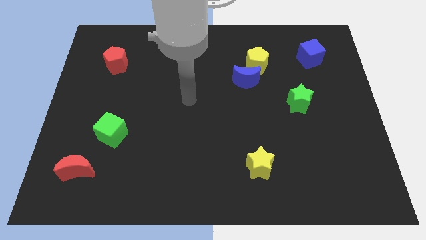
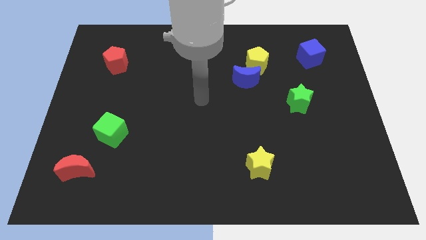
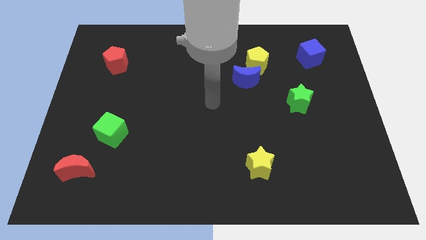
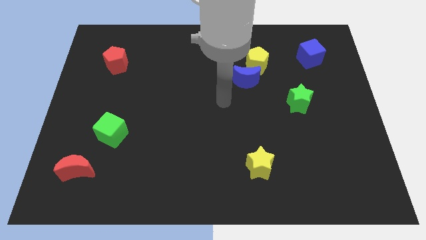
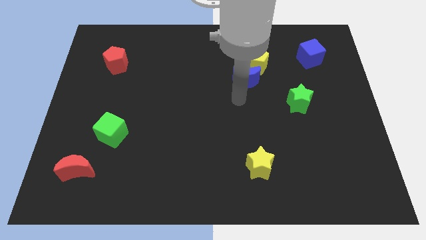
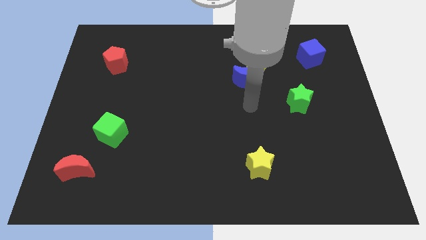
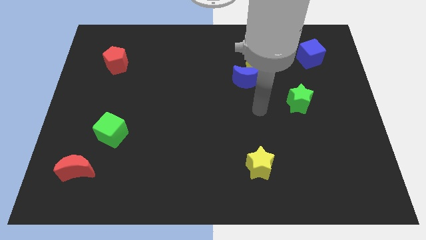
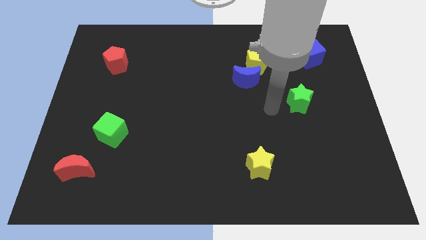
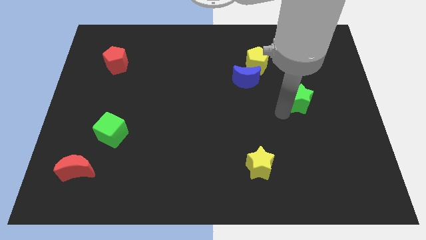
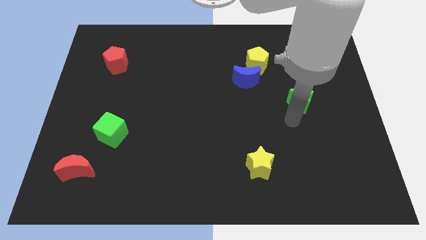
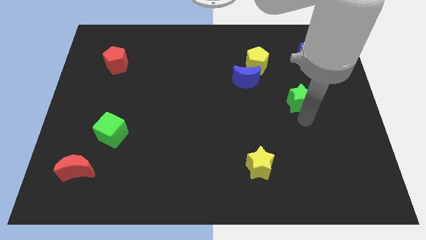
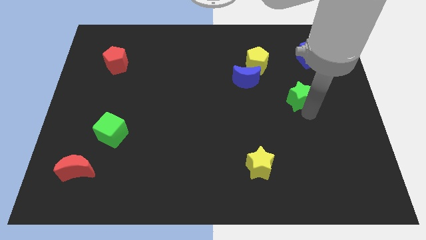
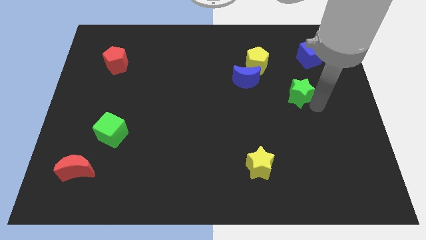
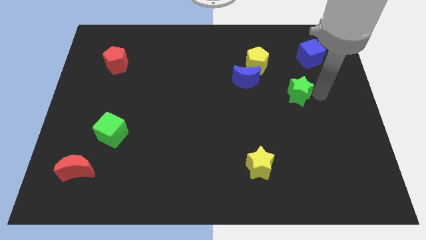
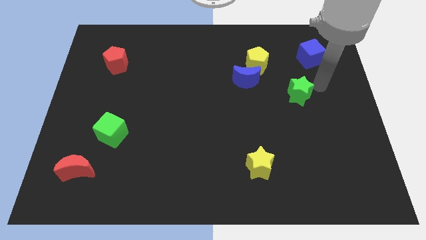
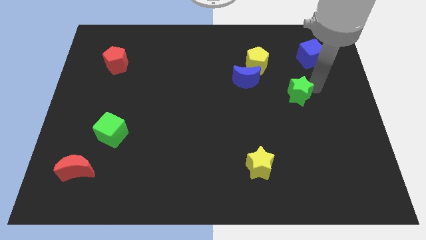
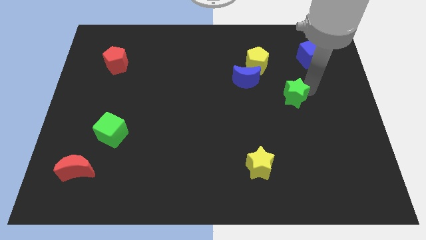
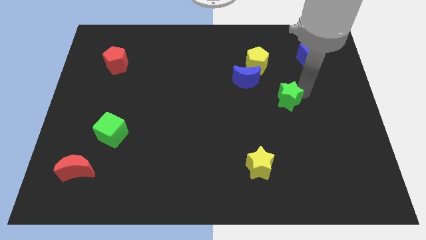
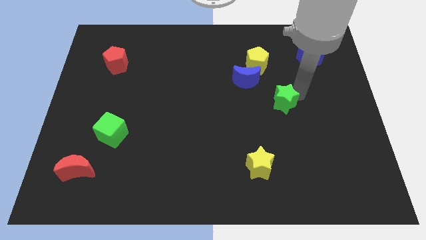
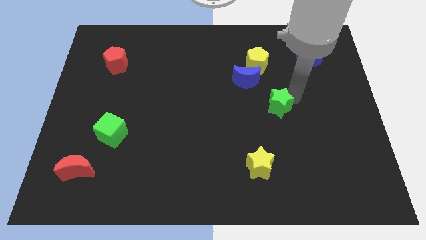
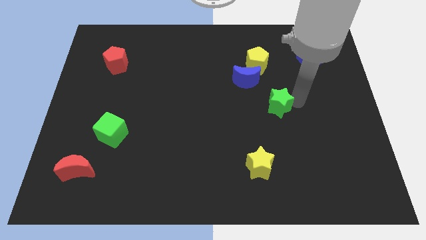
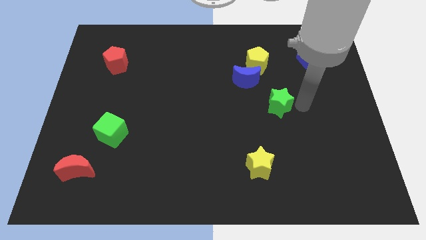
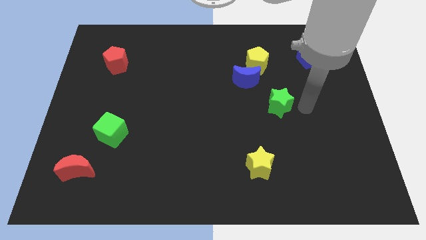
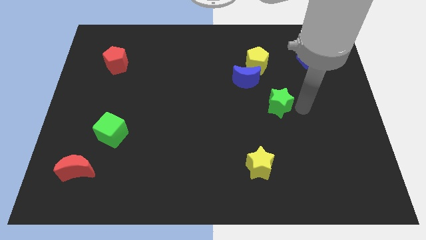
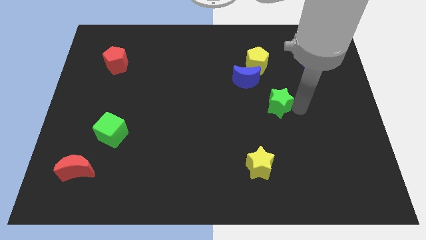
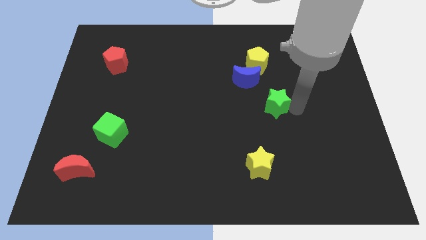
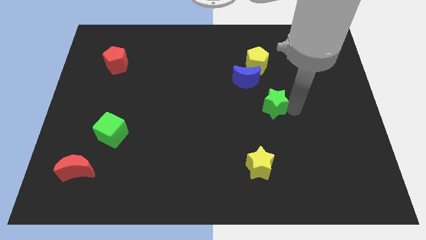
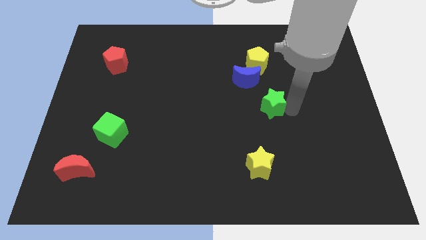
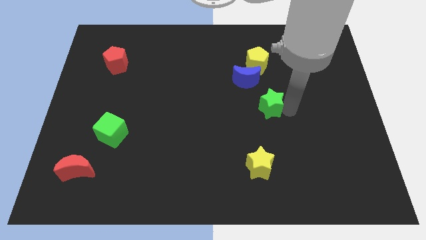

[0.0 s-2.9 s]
push the green star to the left slightly

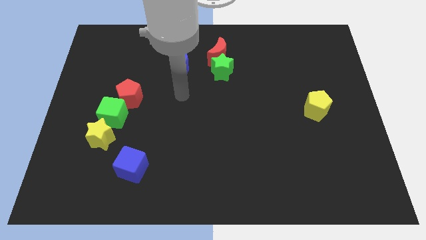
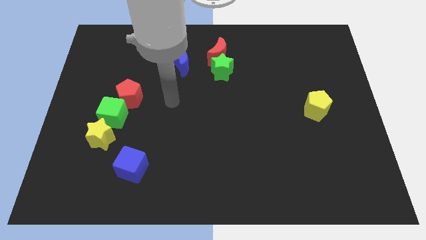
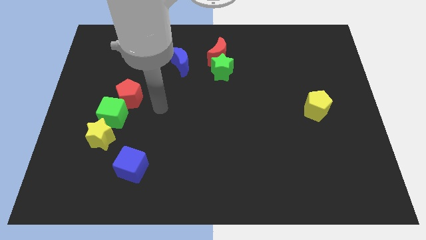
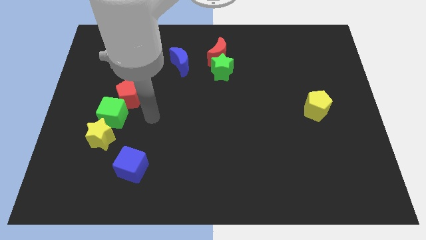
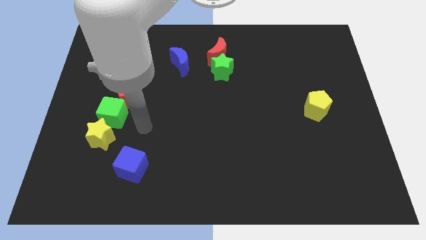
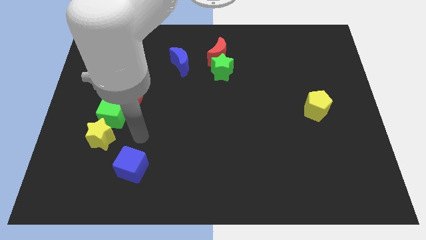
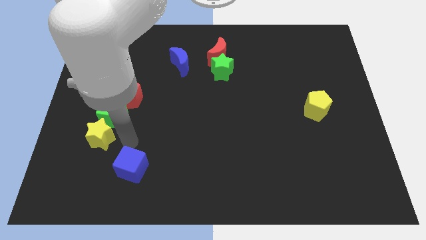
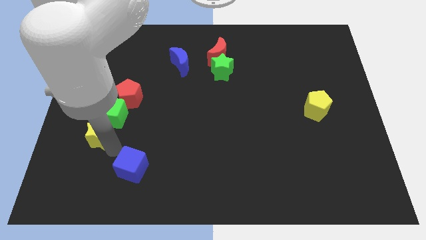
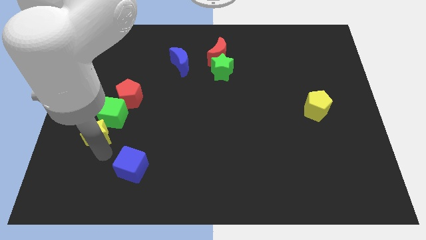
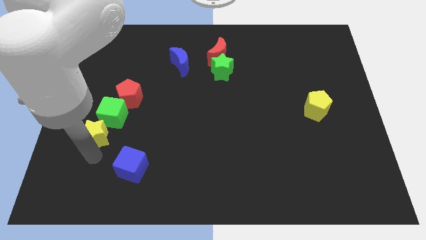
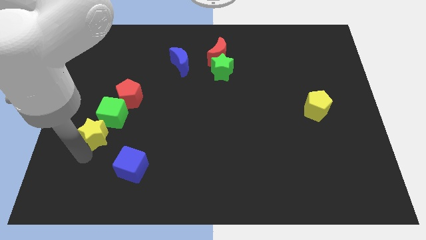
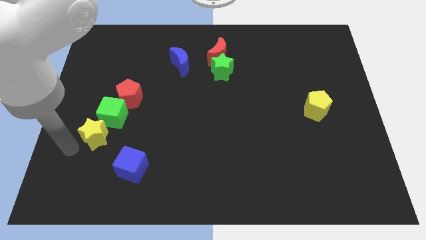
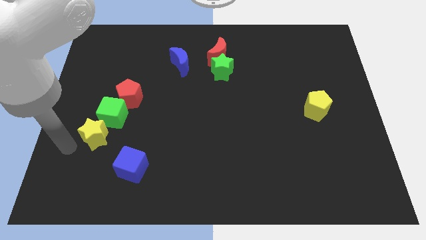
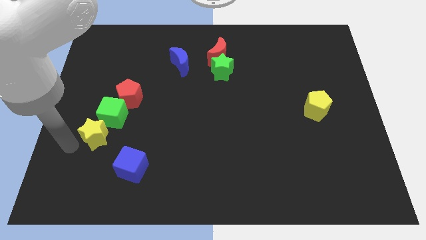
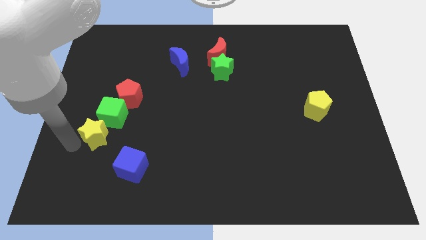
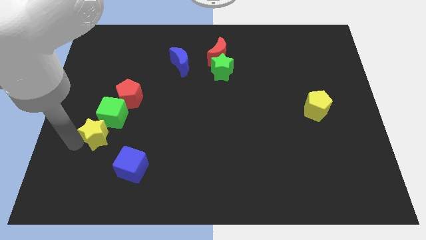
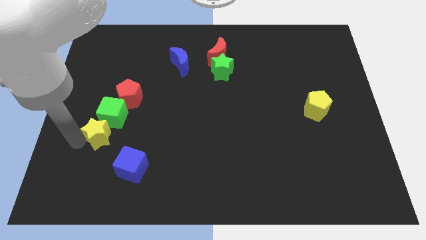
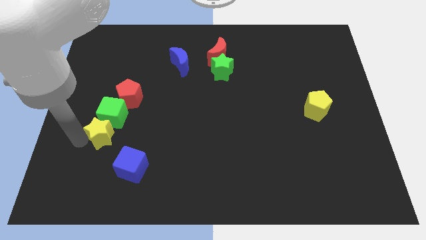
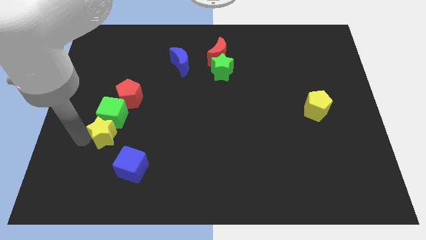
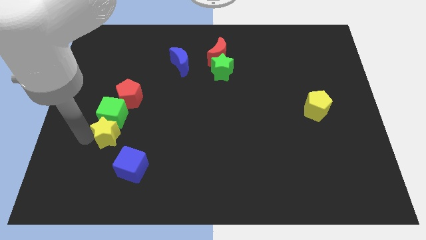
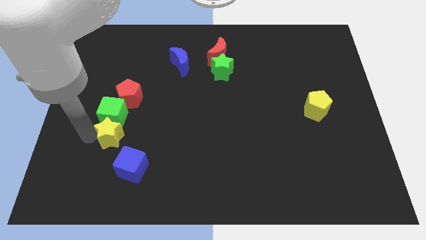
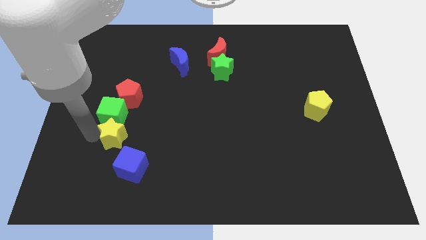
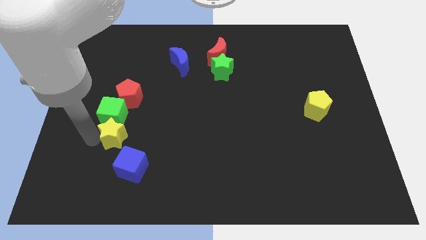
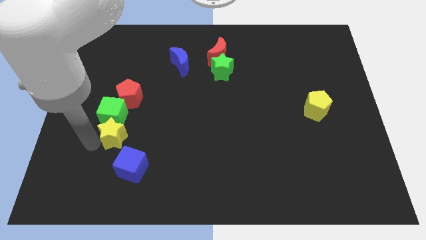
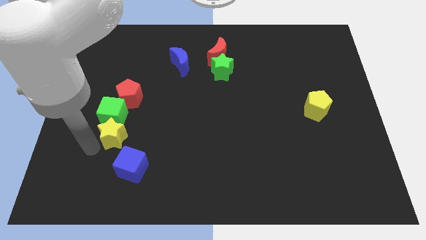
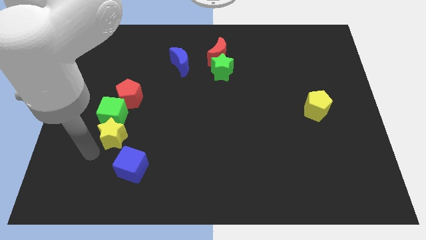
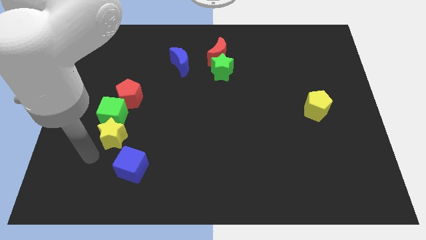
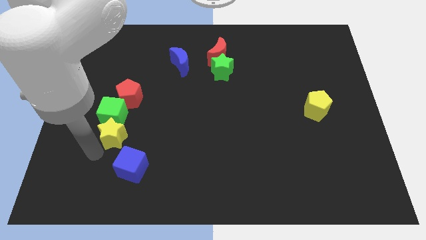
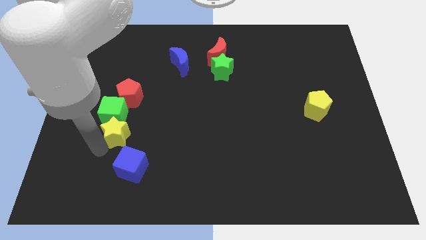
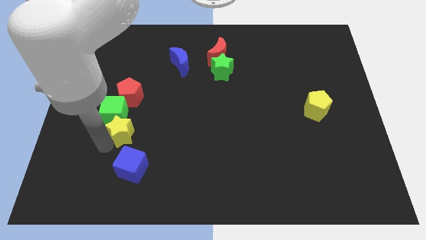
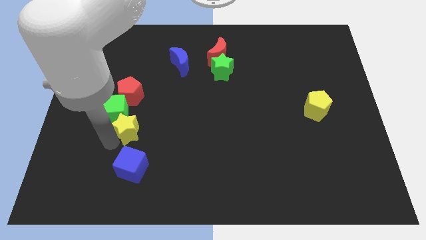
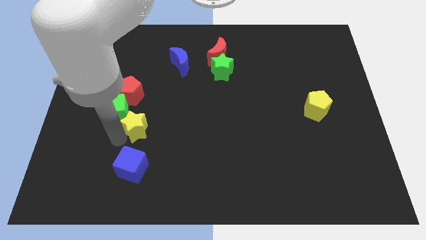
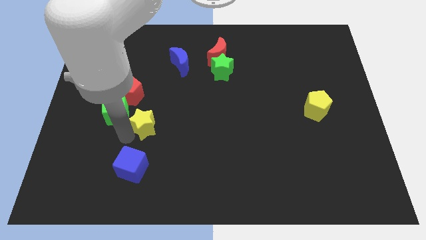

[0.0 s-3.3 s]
push the yellow star diagonally upwards and to the right slightly

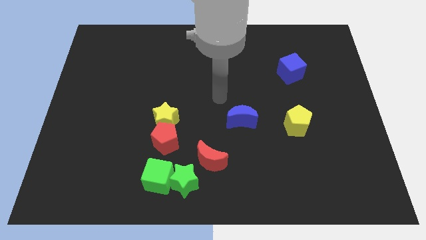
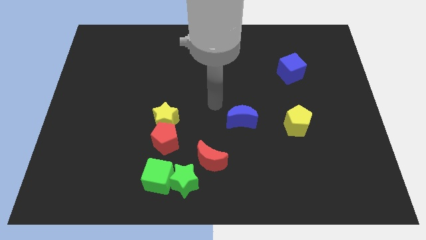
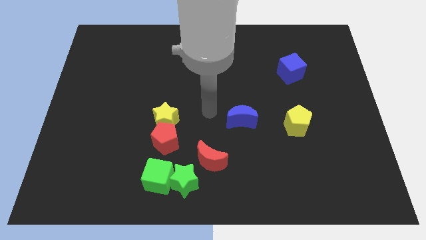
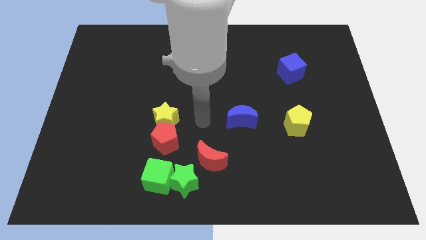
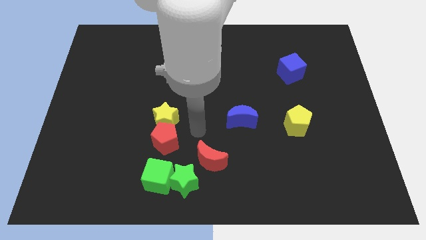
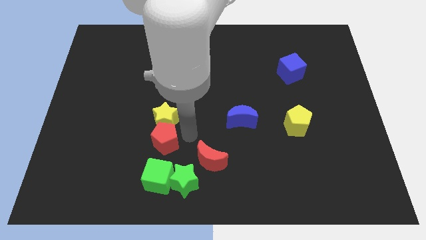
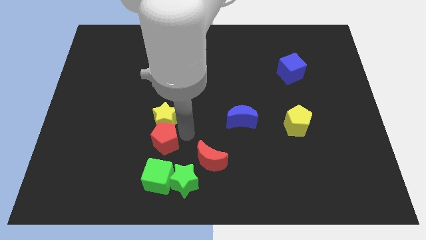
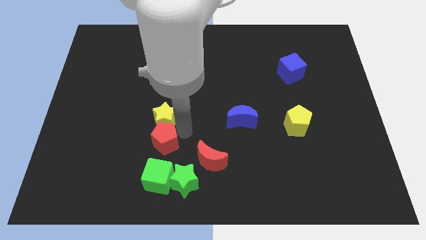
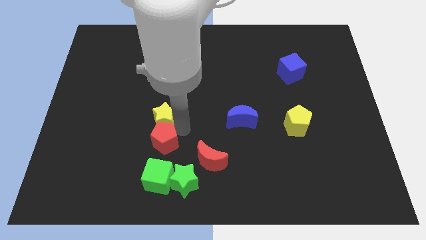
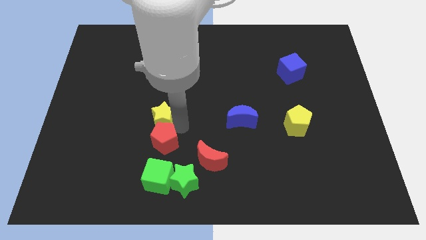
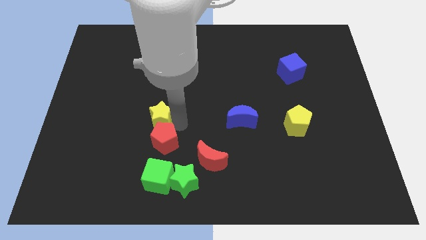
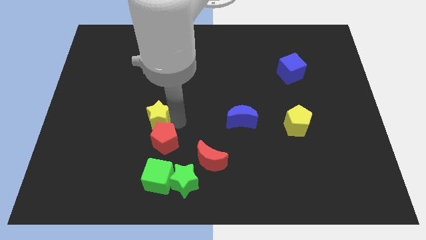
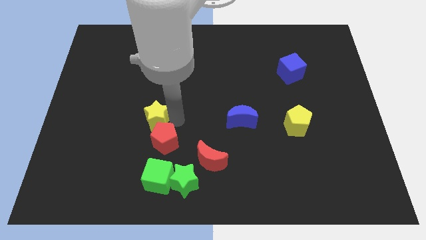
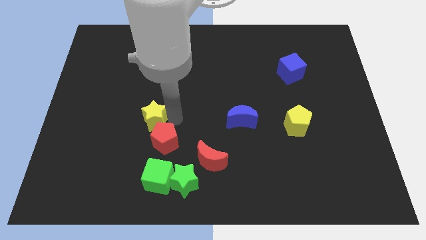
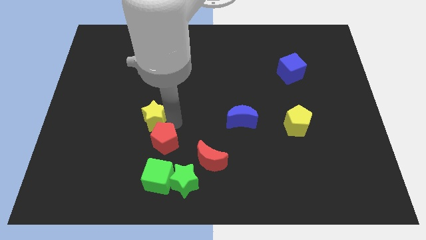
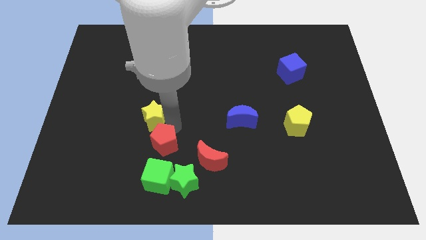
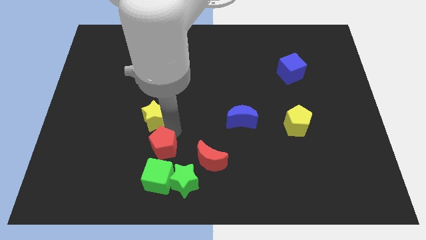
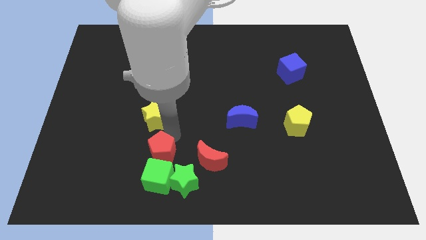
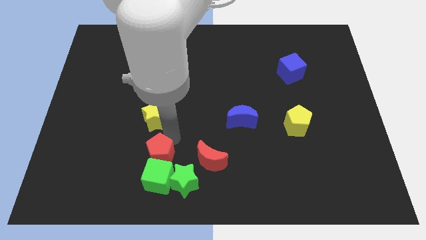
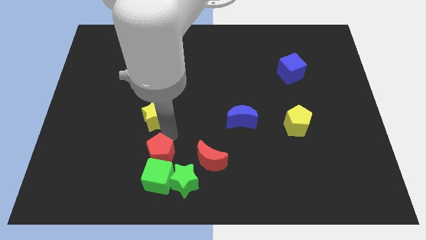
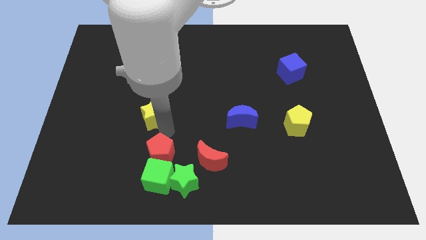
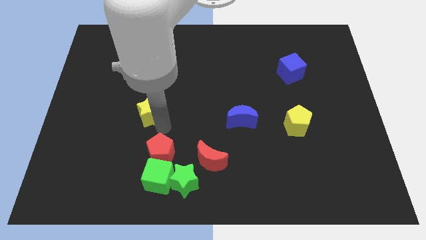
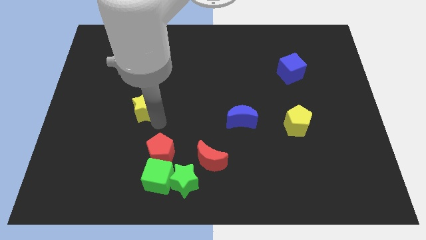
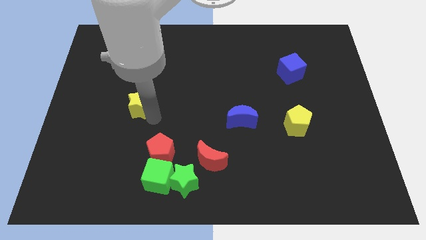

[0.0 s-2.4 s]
slide the yellow star diagonally up and to the left a little
